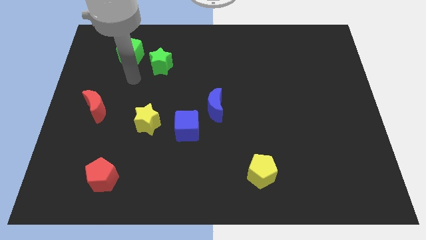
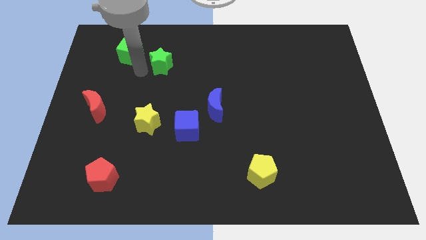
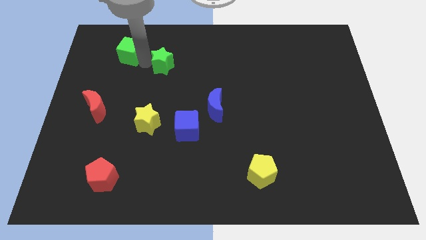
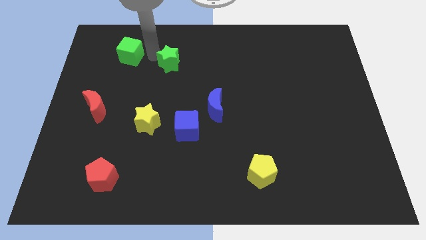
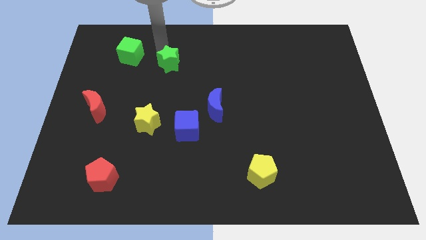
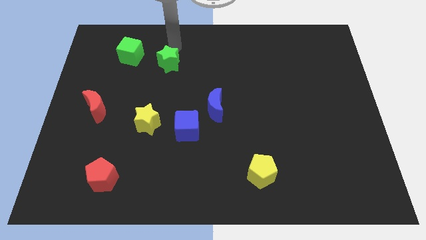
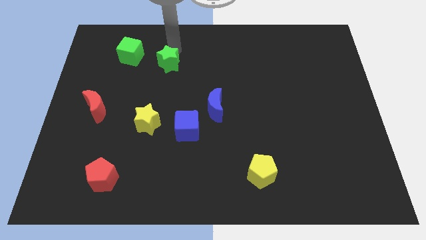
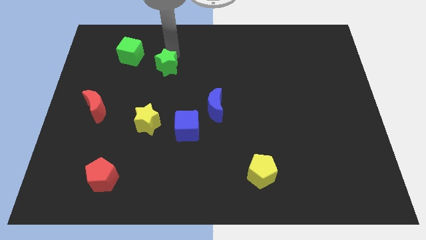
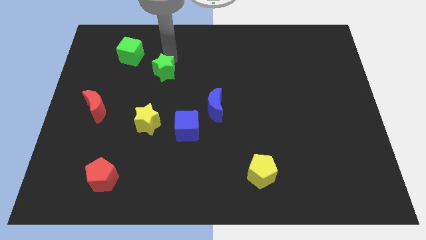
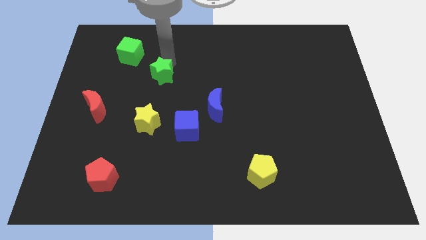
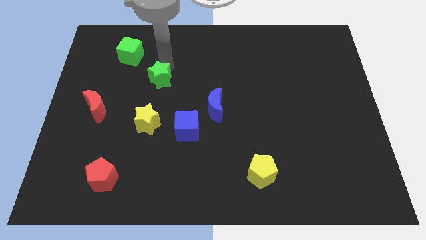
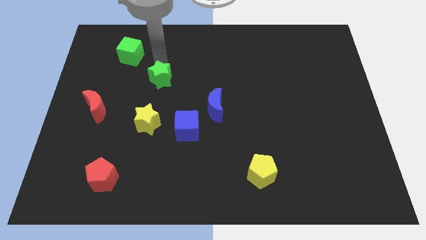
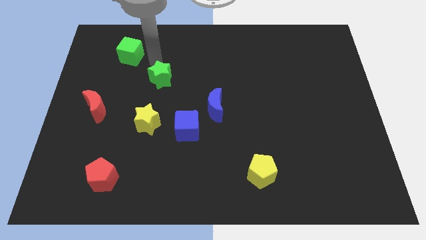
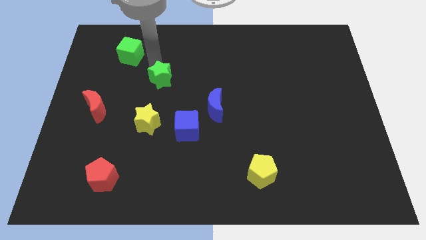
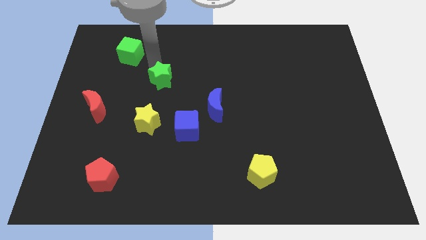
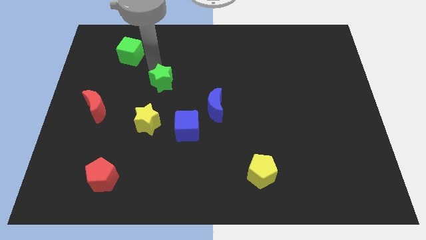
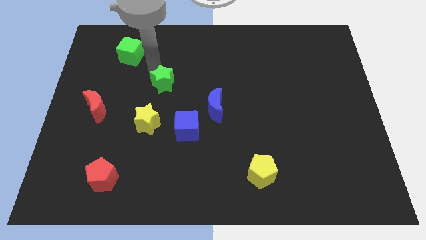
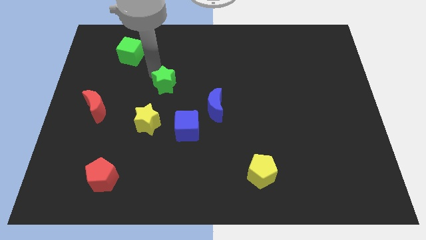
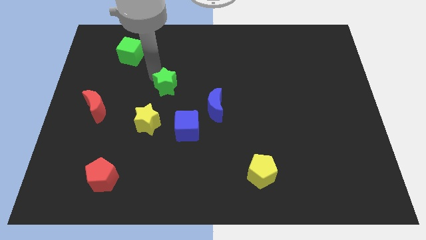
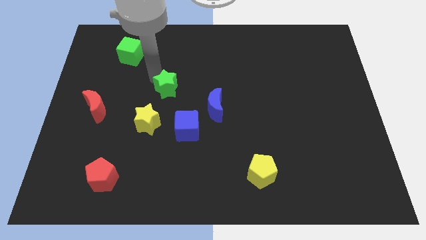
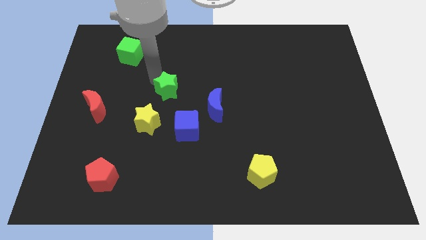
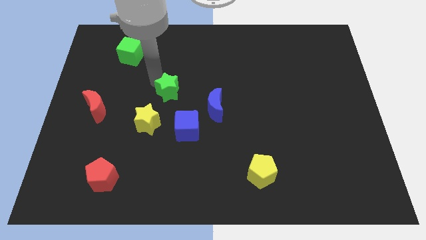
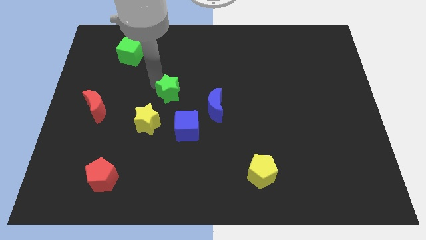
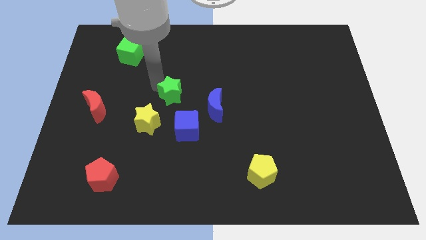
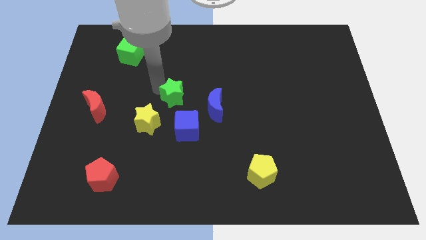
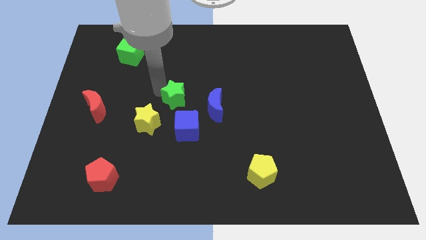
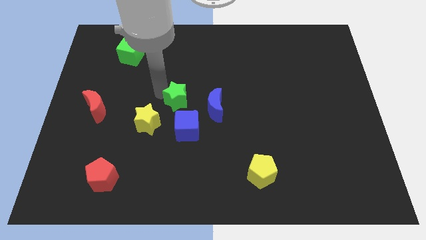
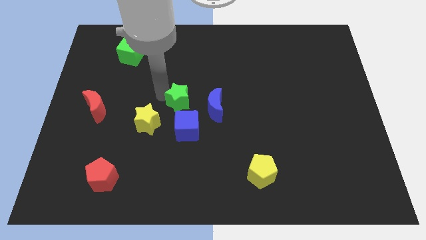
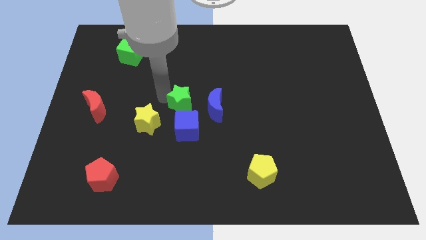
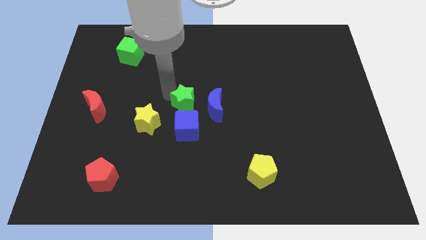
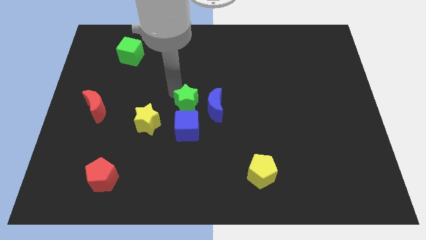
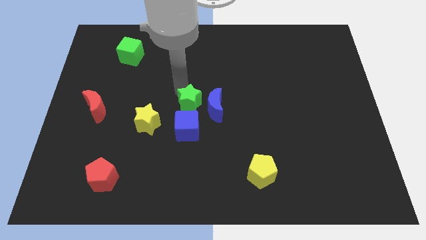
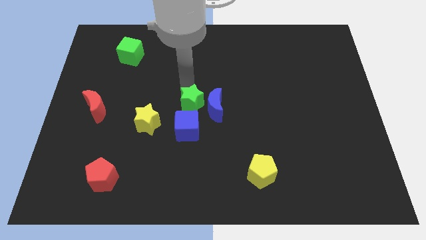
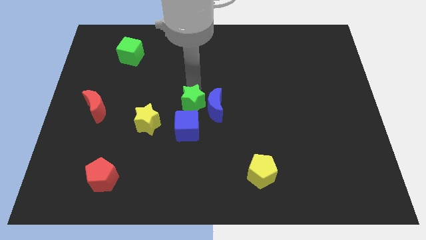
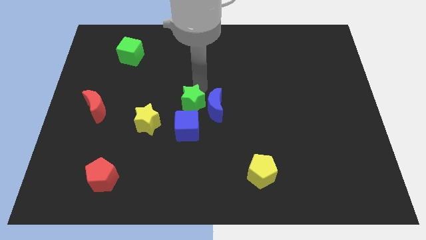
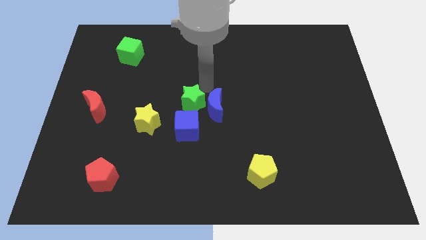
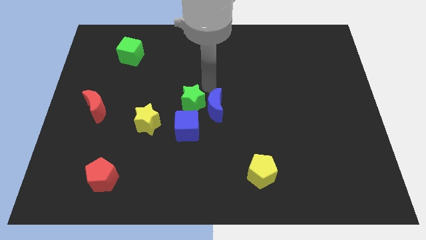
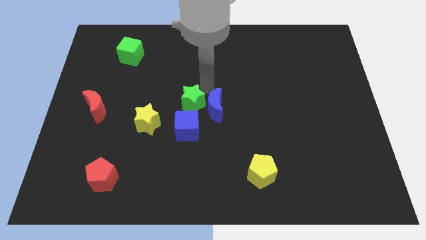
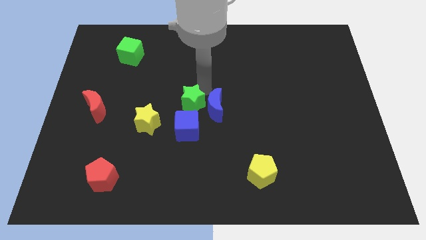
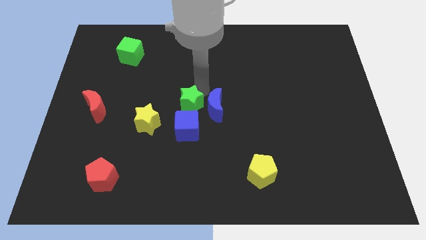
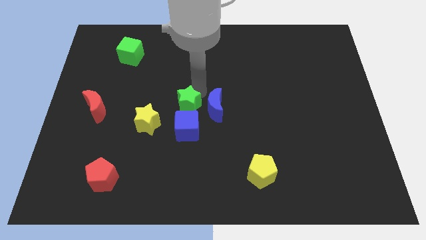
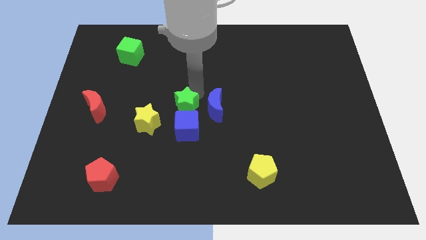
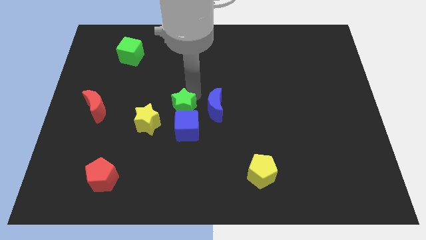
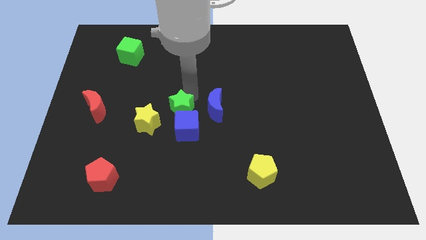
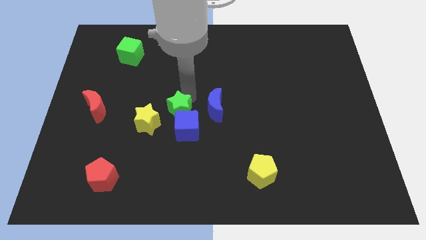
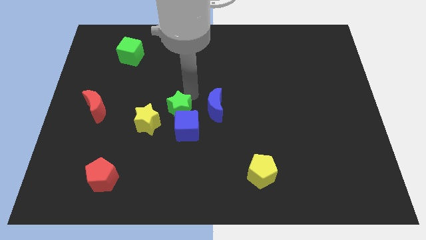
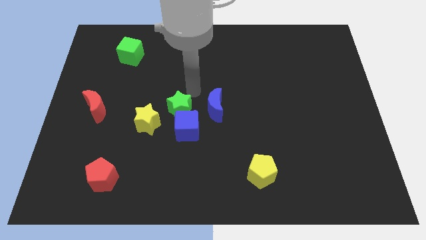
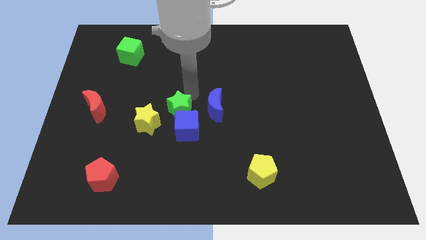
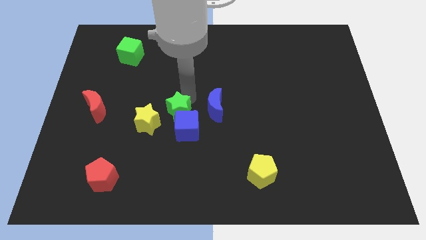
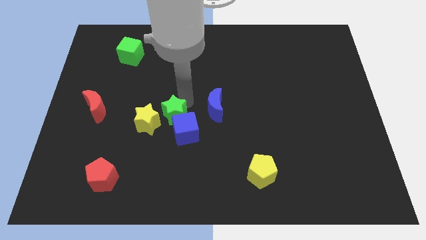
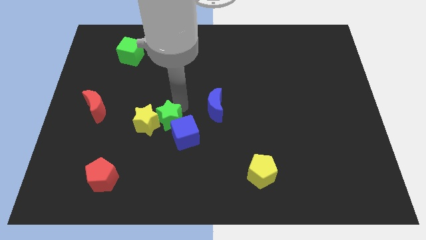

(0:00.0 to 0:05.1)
slide the green star diagonally down and to the right of the yellow star

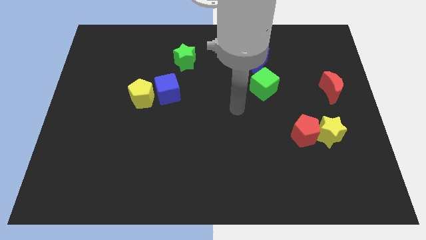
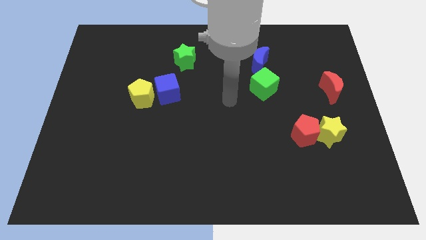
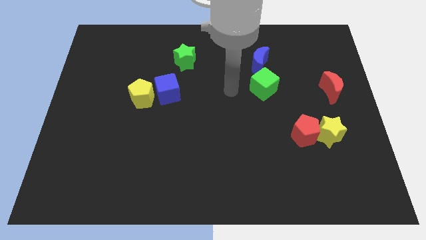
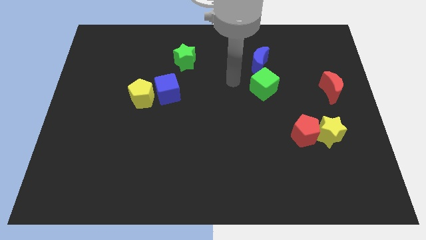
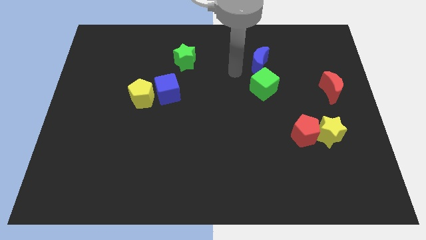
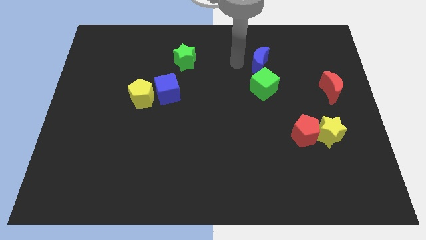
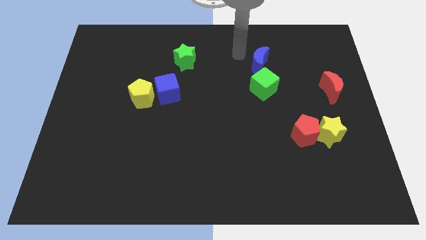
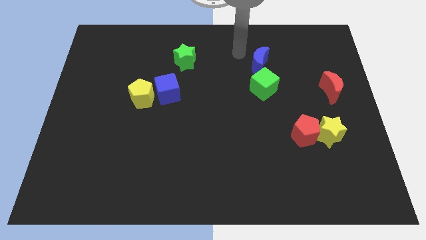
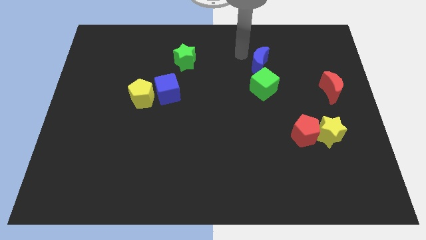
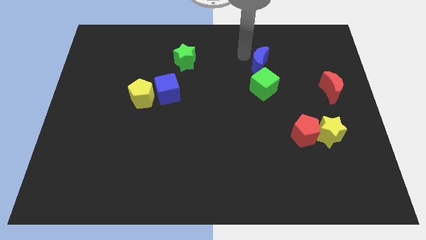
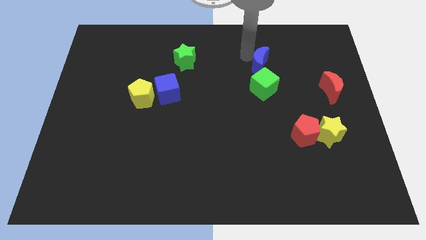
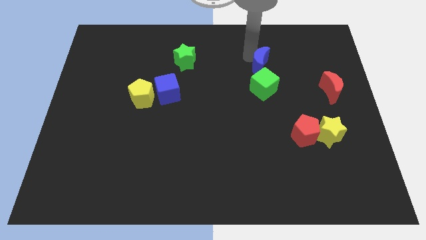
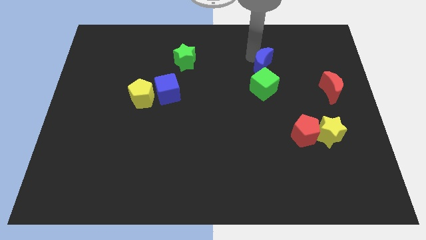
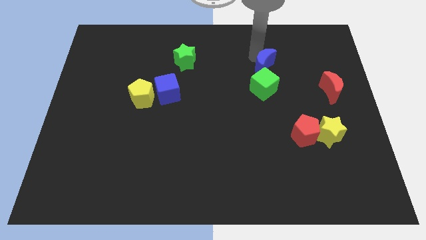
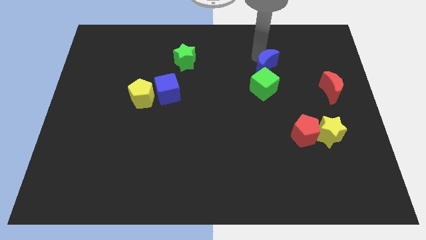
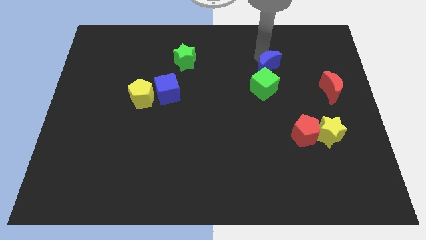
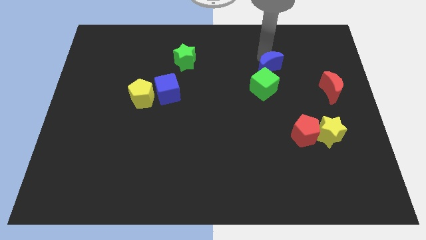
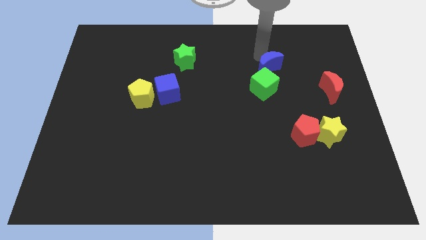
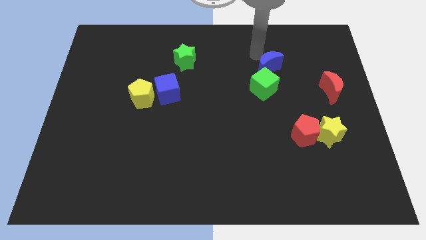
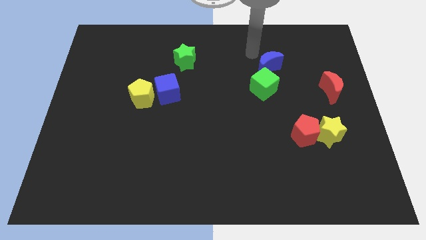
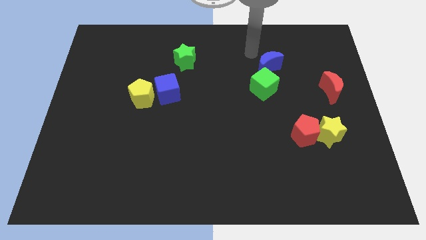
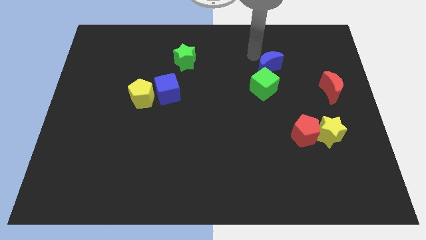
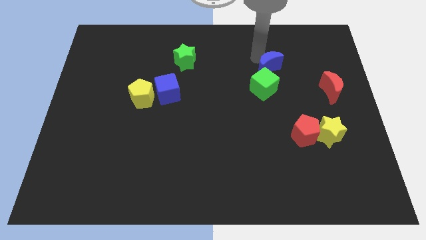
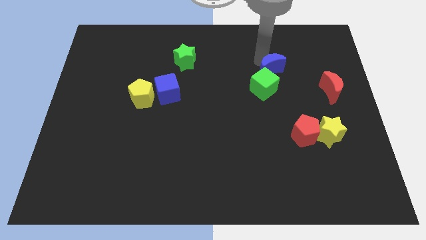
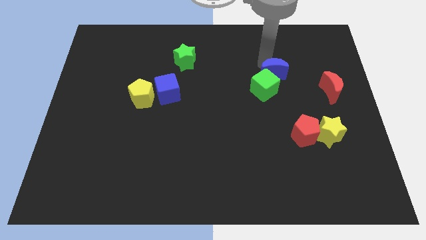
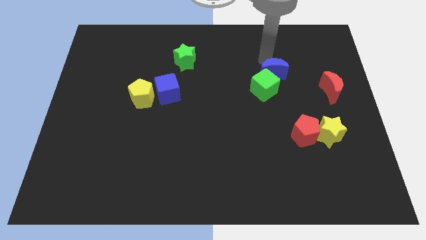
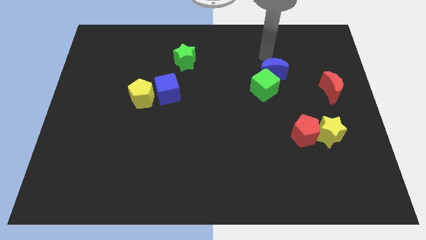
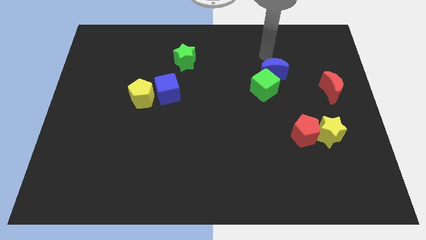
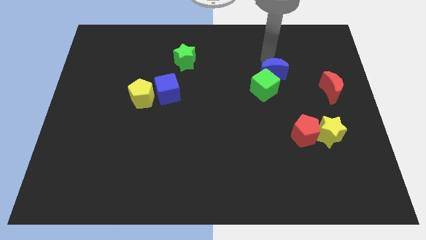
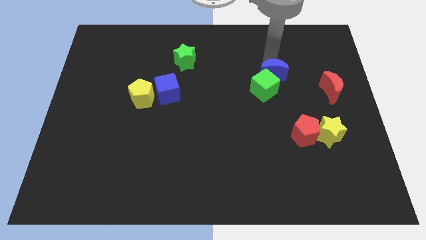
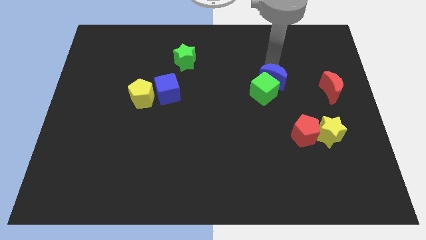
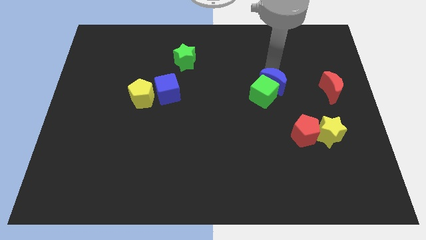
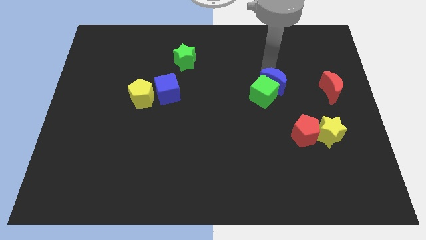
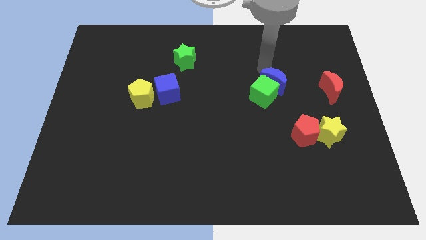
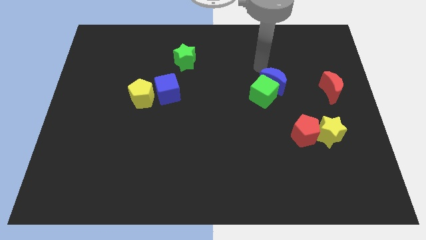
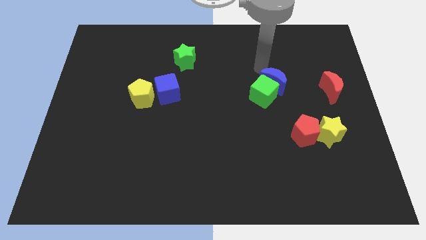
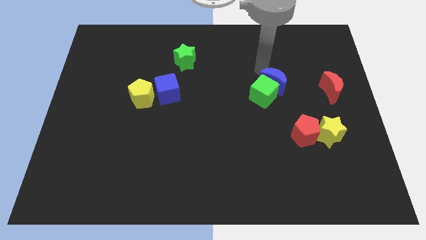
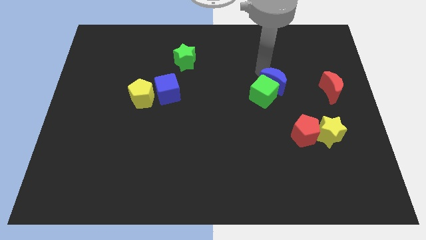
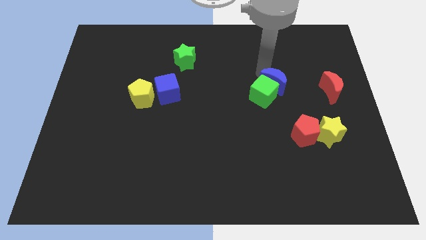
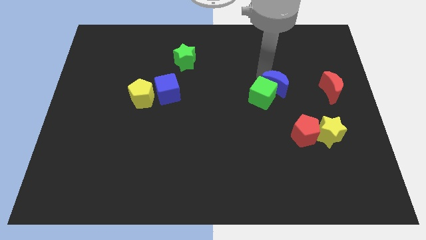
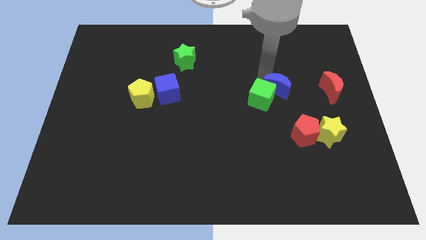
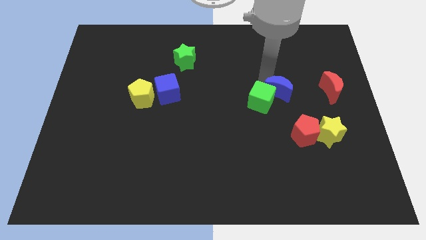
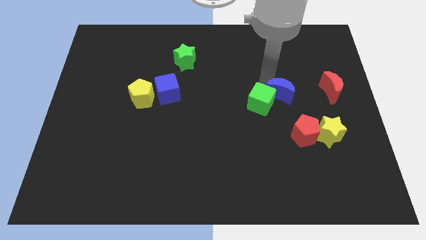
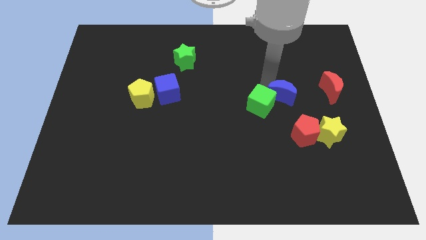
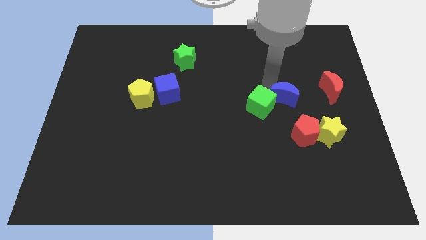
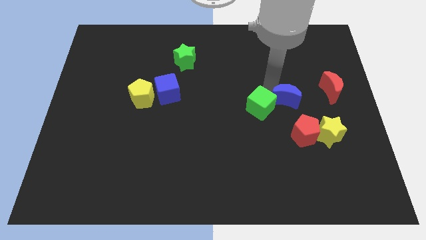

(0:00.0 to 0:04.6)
put the blue moon to the top left side of the red pentagon
